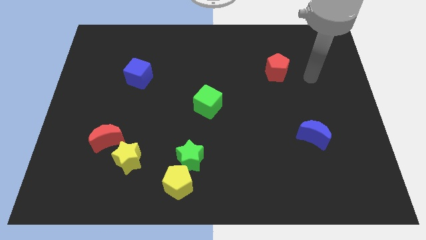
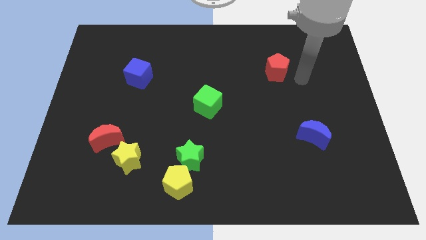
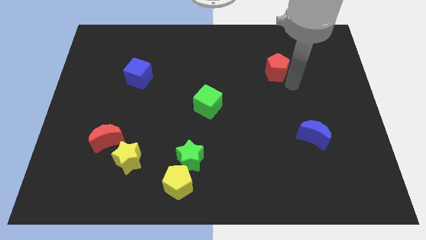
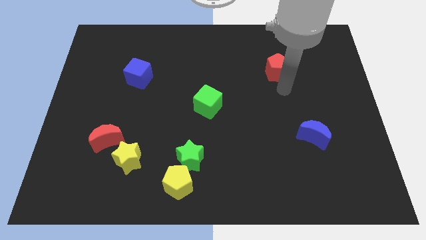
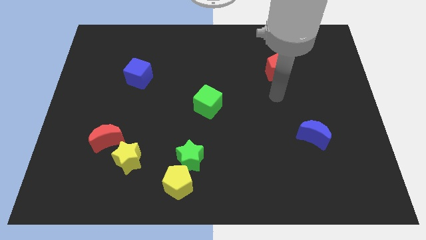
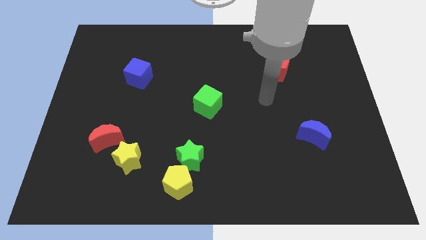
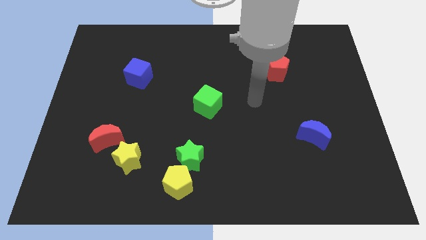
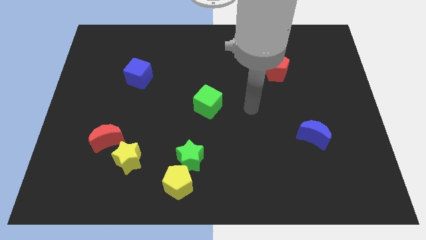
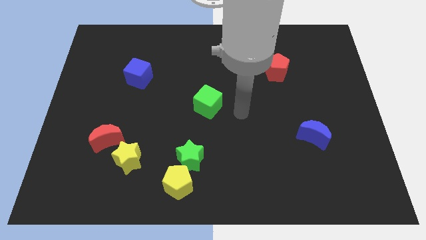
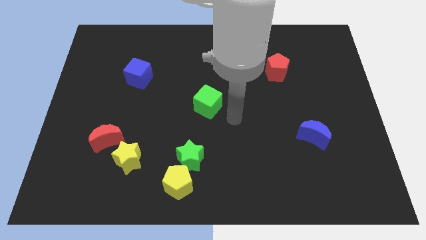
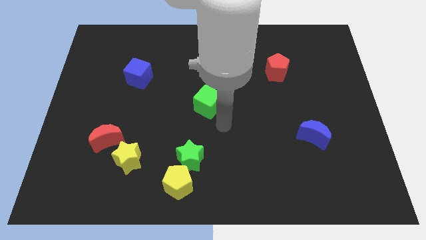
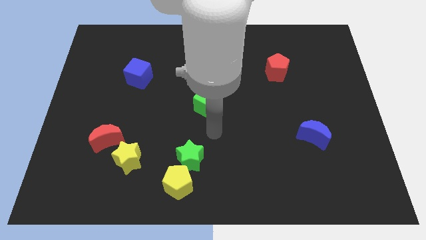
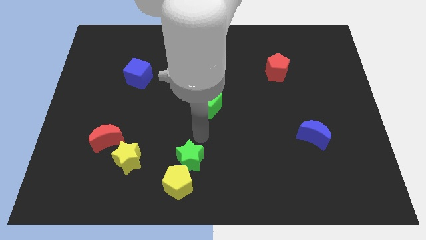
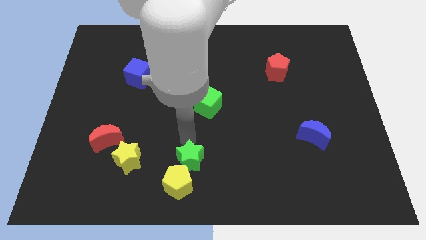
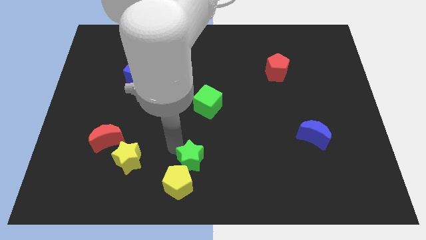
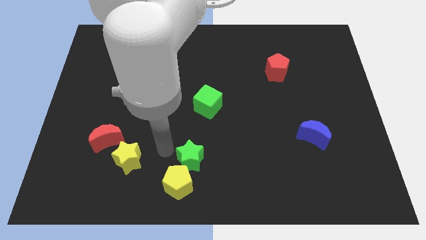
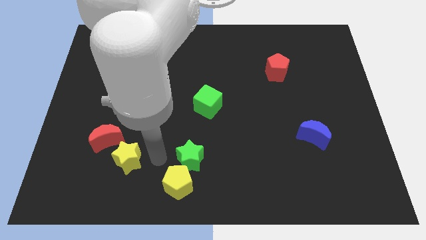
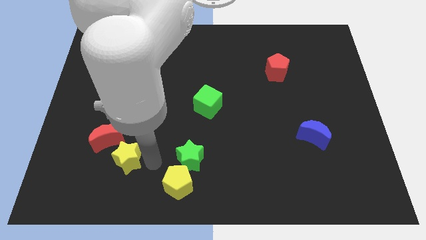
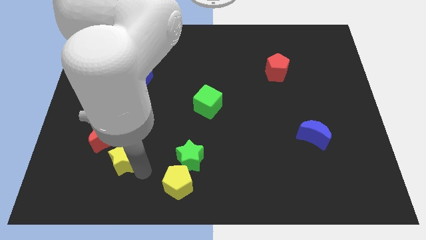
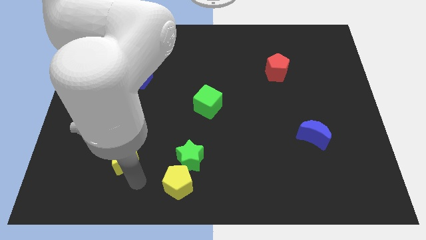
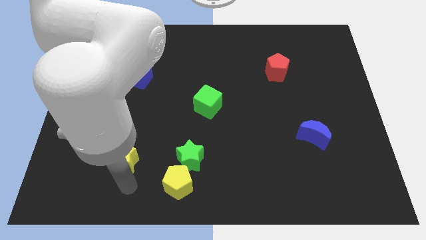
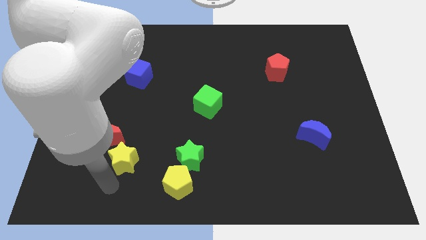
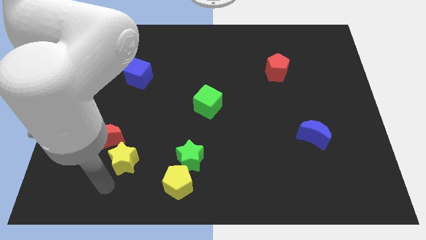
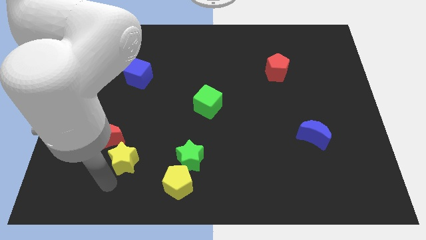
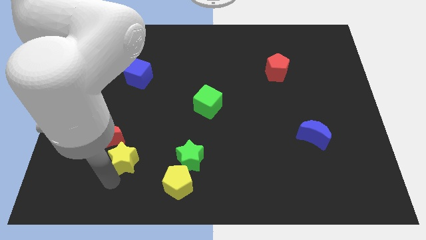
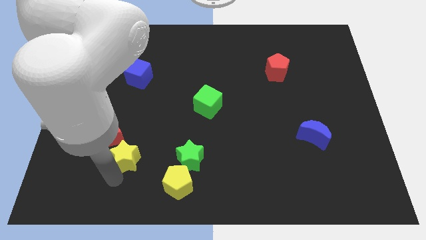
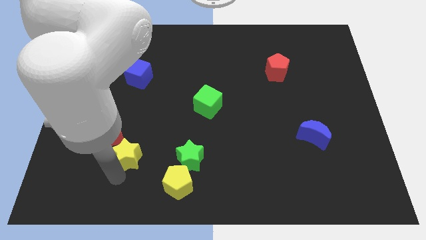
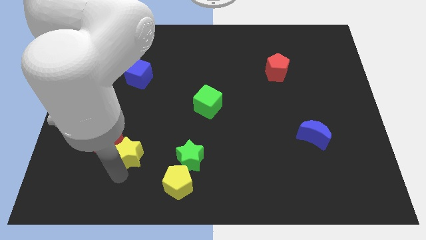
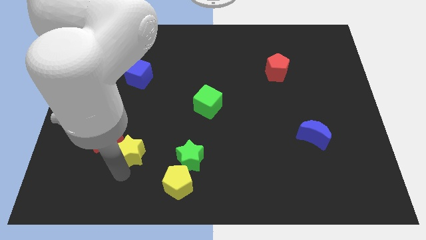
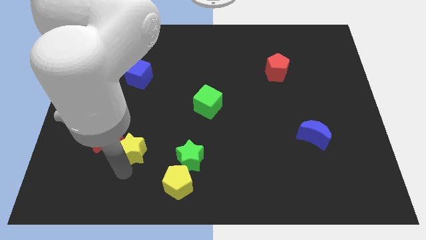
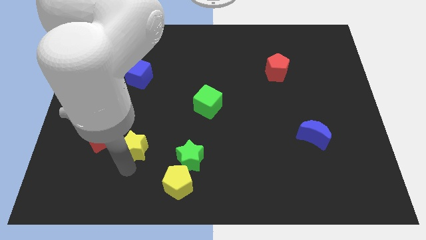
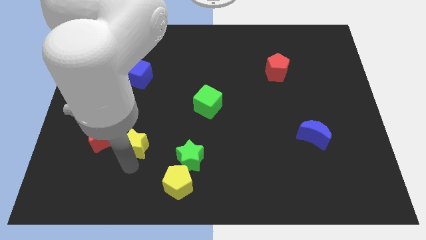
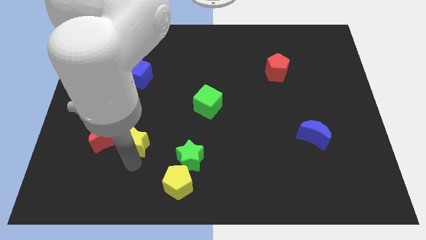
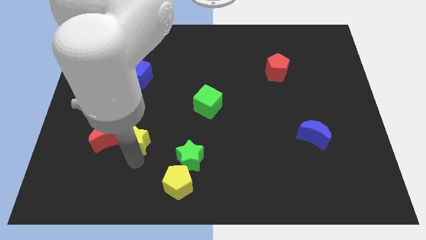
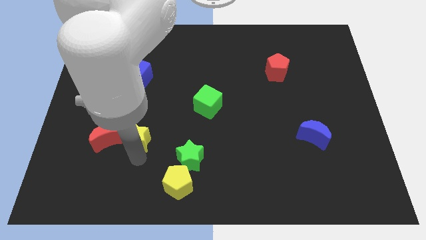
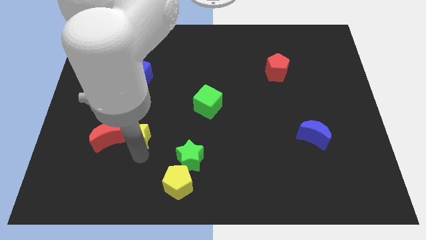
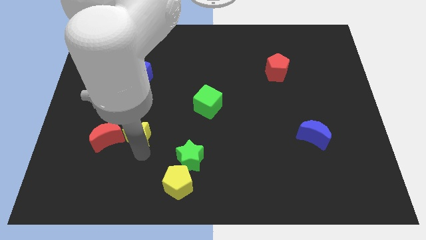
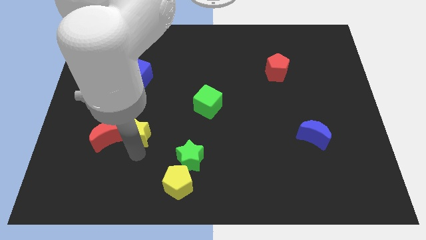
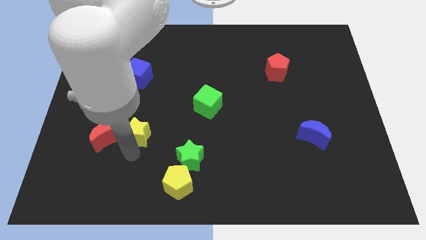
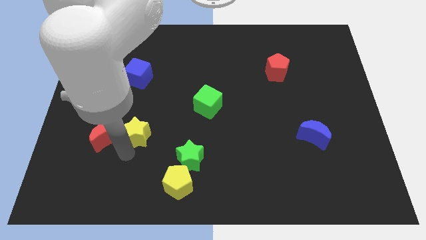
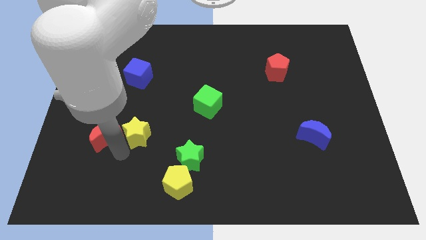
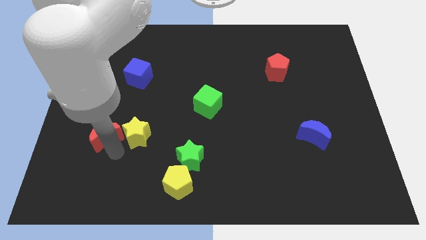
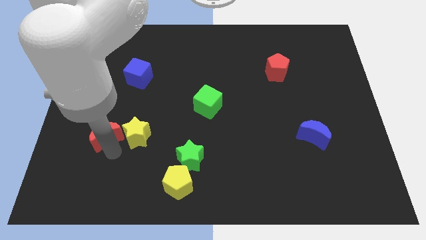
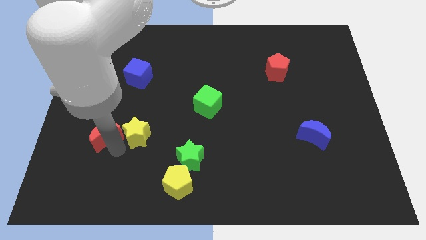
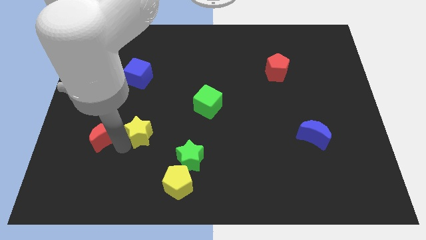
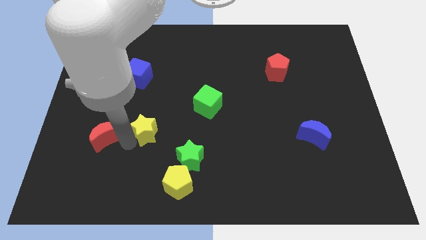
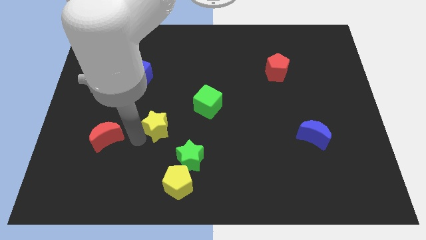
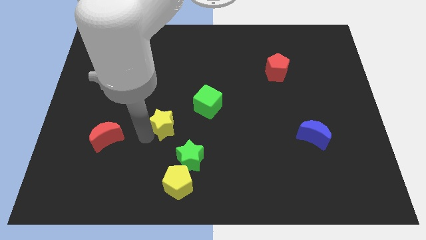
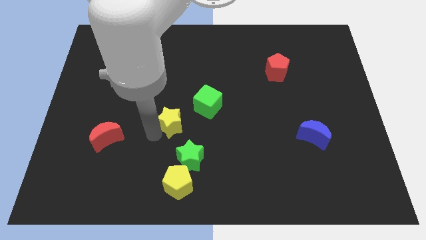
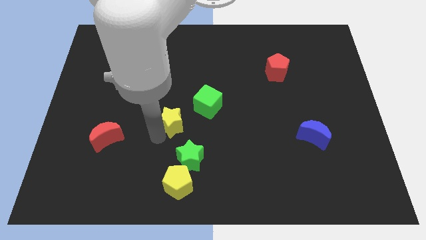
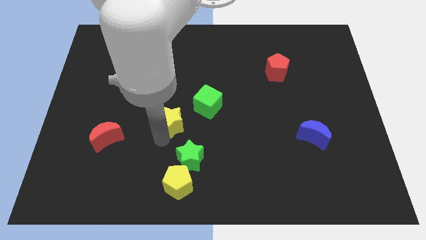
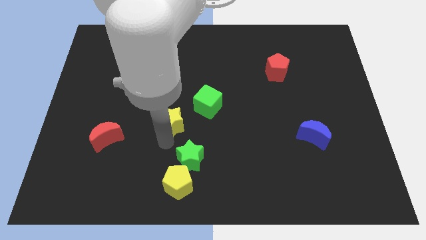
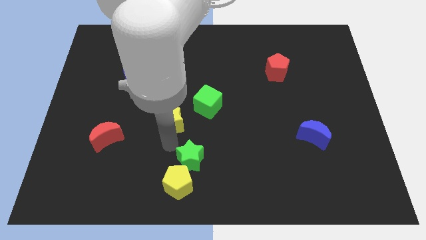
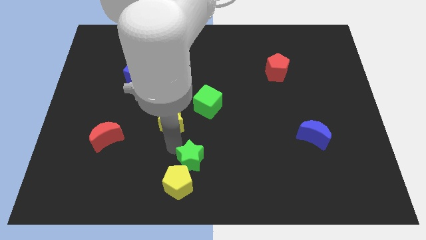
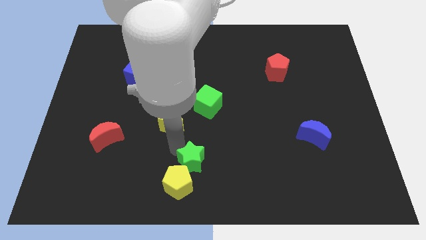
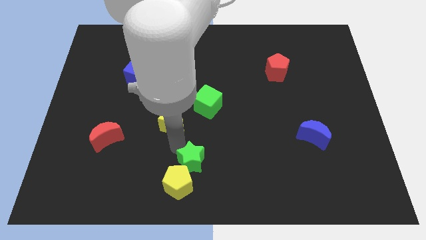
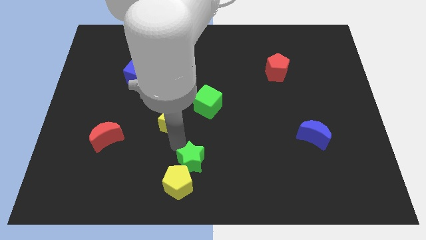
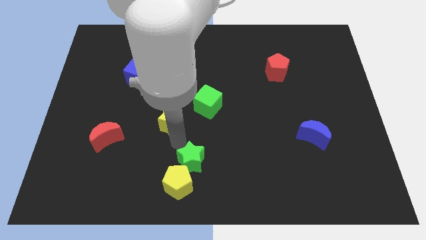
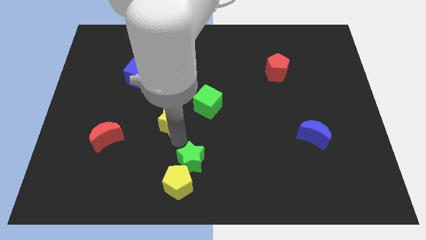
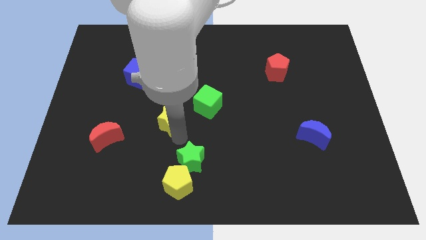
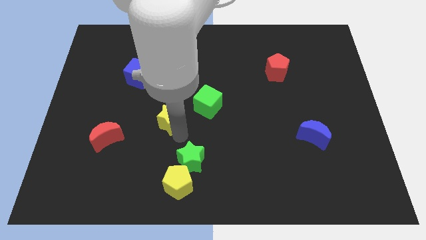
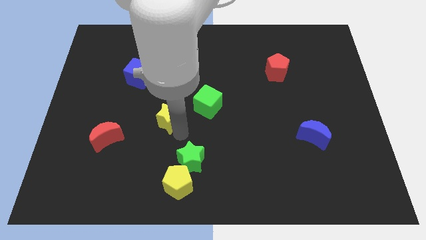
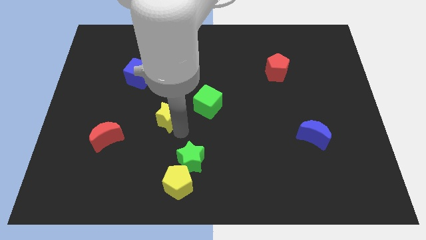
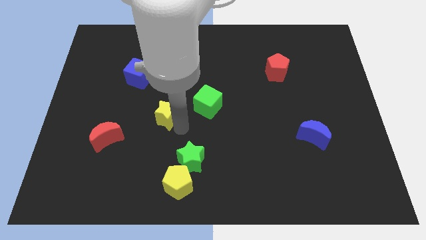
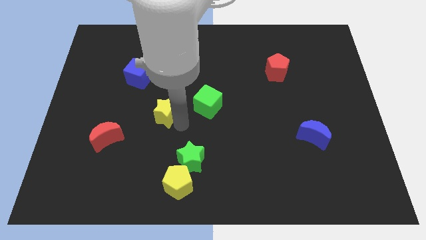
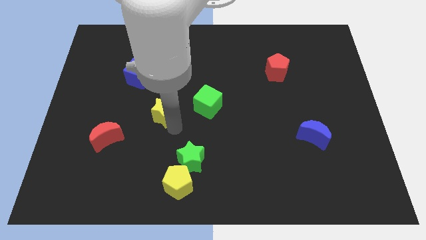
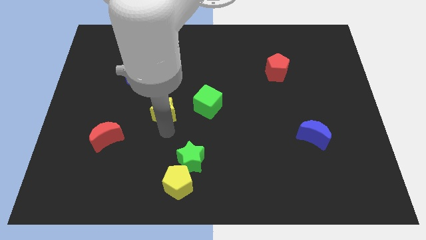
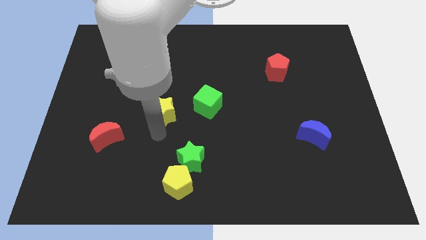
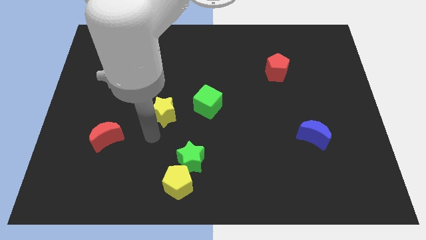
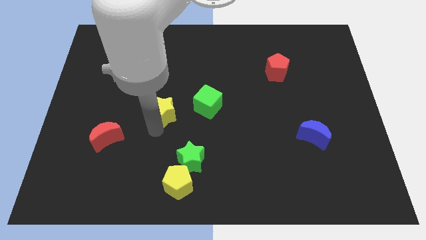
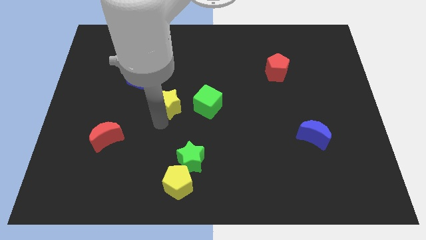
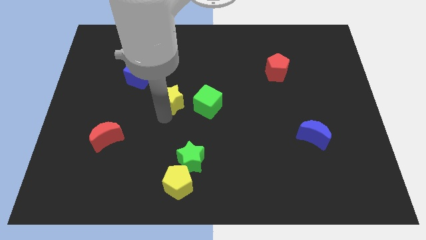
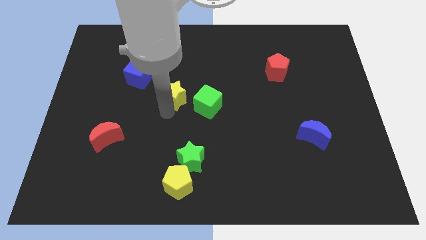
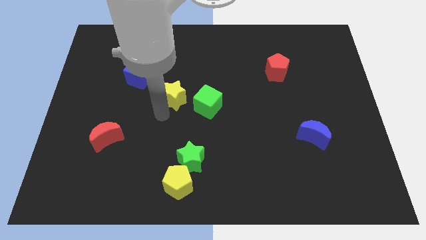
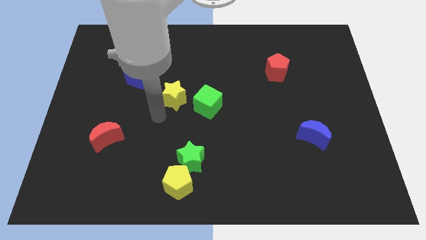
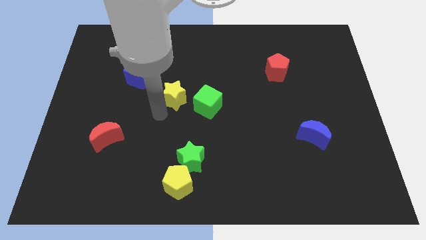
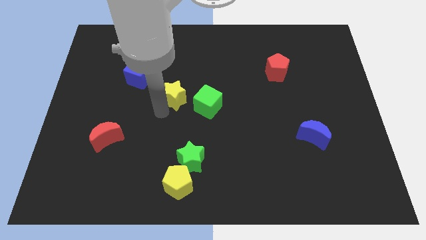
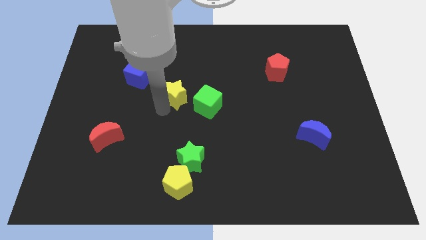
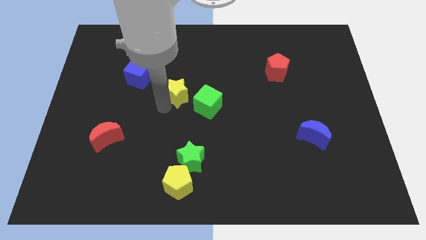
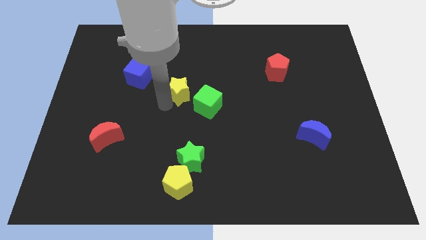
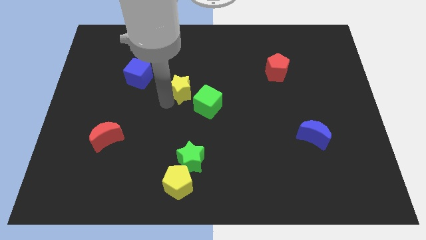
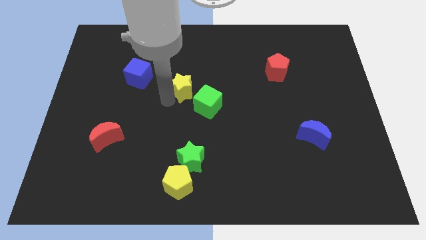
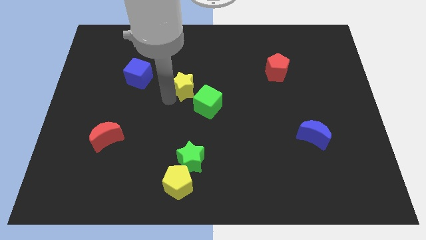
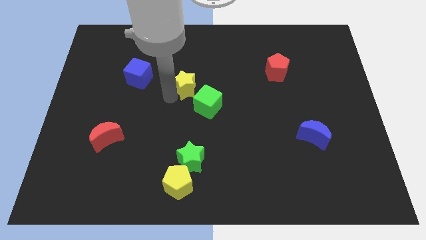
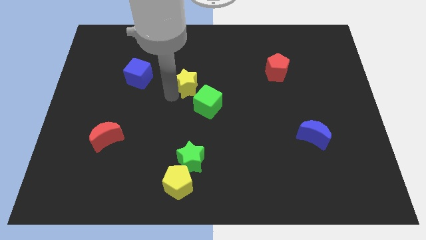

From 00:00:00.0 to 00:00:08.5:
put the yellow star above the green cube
